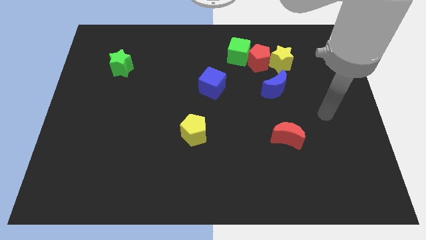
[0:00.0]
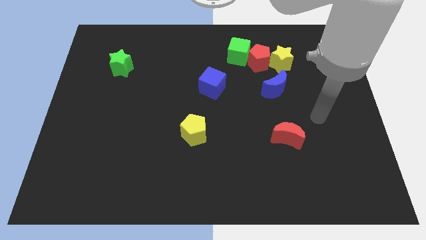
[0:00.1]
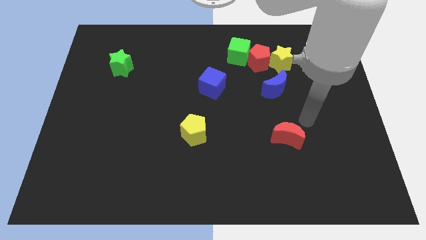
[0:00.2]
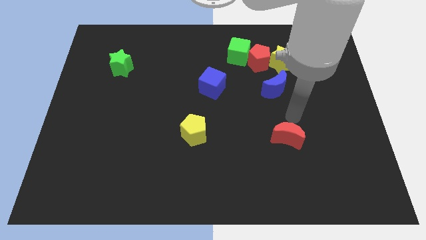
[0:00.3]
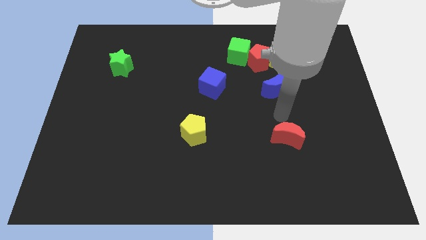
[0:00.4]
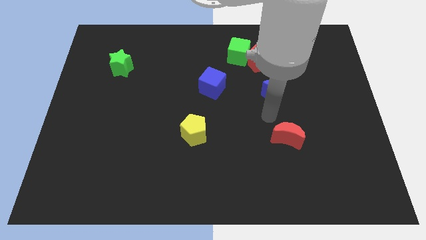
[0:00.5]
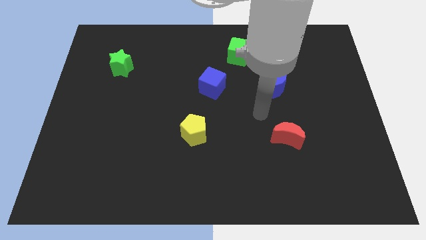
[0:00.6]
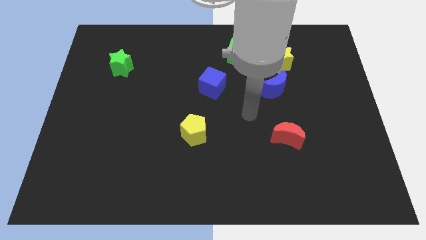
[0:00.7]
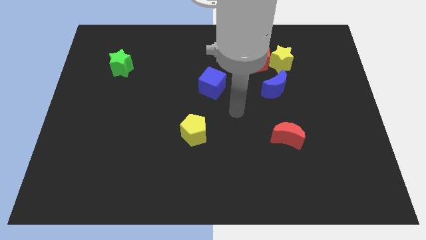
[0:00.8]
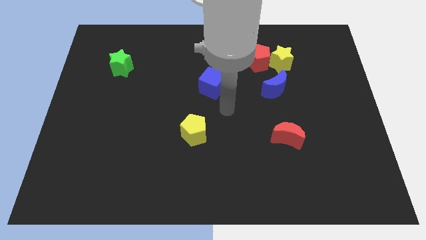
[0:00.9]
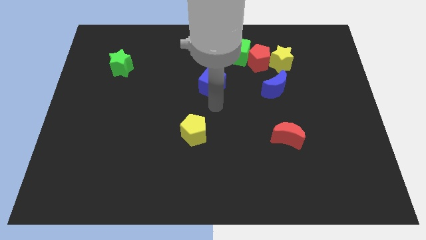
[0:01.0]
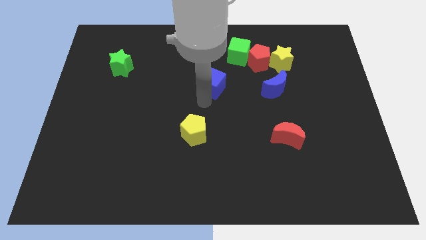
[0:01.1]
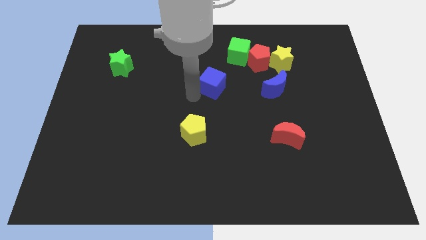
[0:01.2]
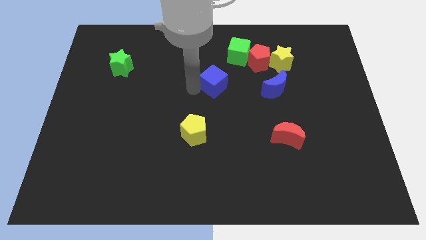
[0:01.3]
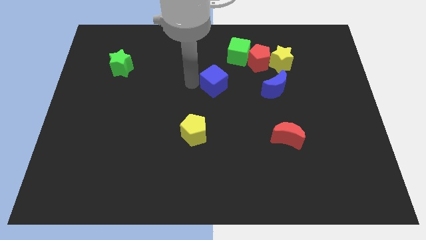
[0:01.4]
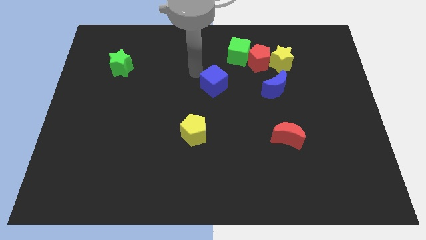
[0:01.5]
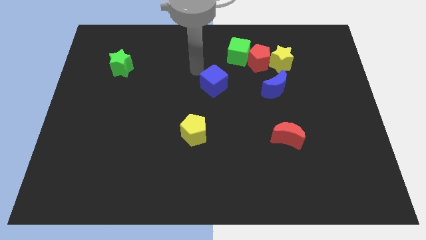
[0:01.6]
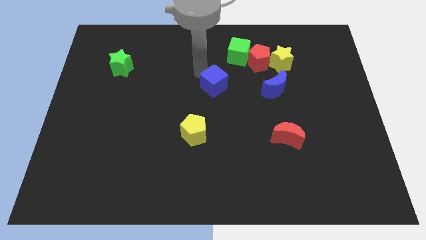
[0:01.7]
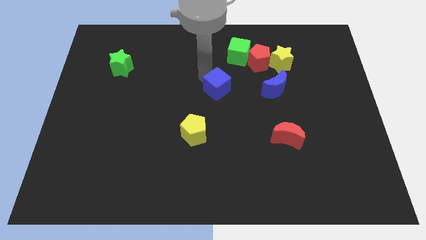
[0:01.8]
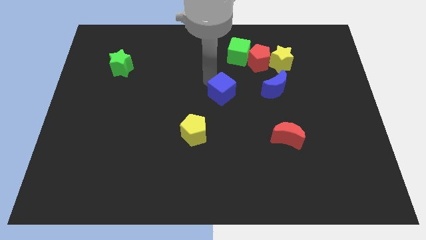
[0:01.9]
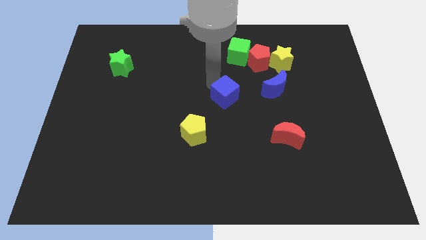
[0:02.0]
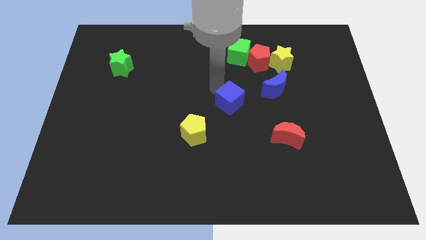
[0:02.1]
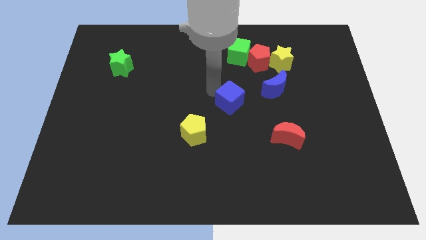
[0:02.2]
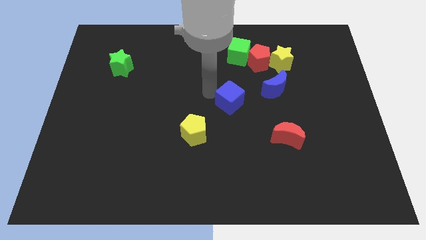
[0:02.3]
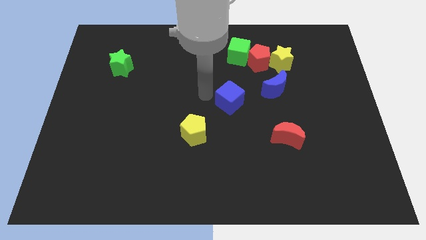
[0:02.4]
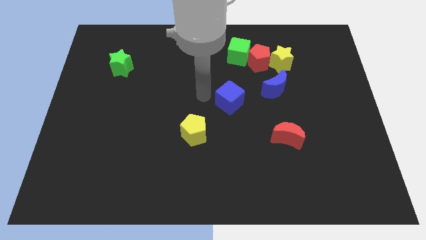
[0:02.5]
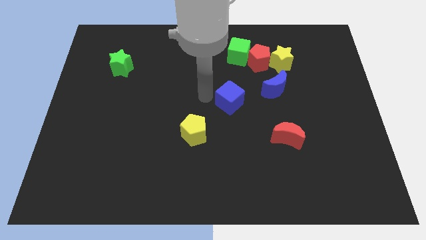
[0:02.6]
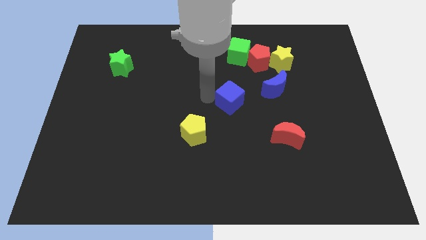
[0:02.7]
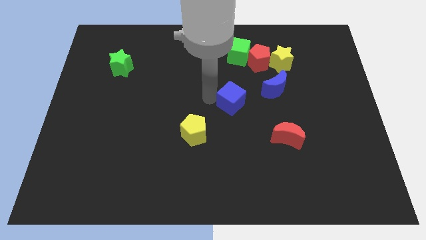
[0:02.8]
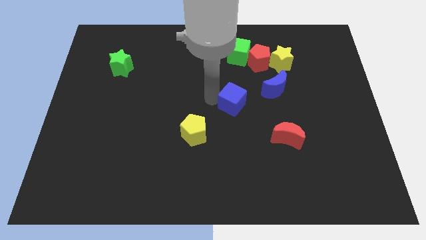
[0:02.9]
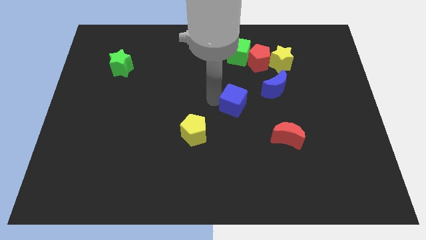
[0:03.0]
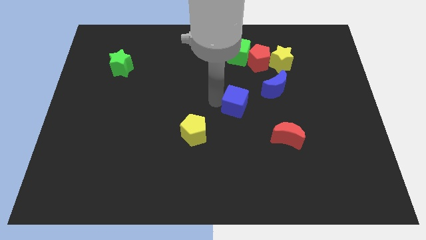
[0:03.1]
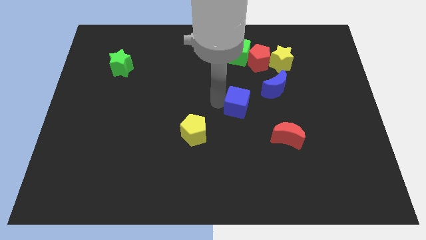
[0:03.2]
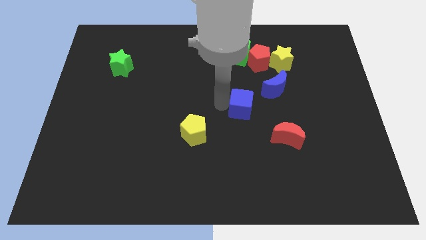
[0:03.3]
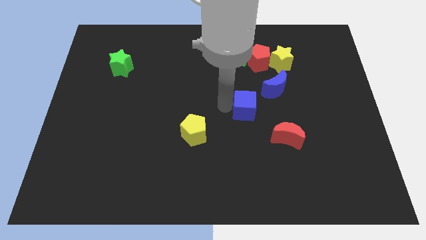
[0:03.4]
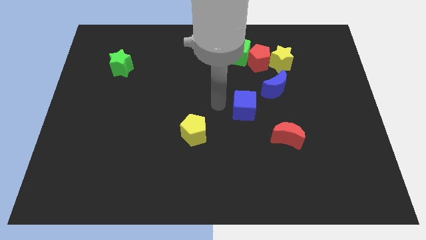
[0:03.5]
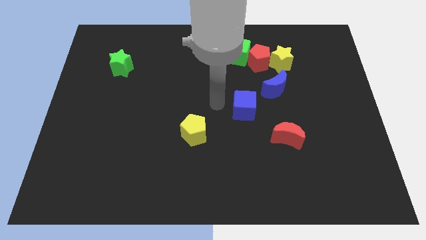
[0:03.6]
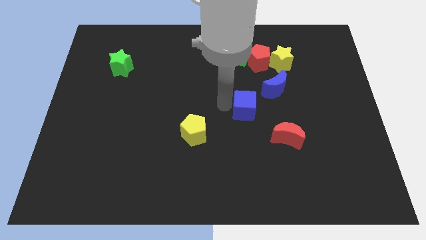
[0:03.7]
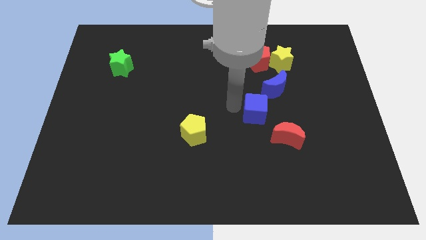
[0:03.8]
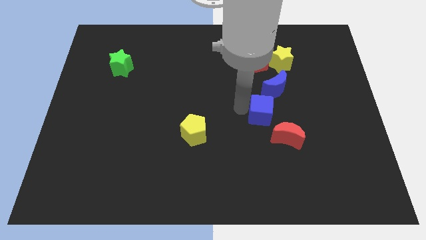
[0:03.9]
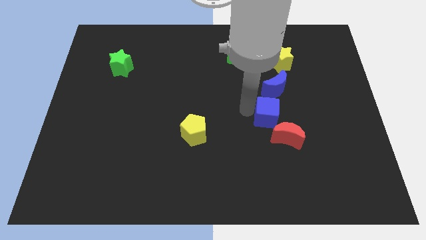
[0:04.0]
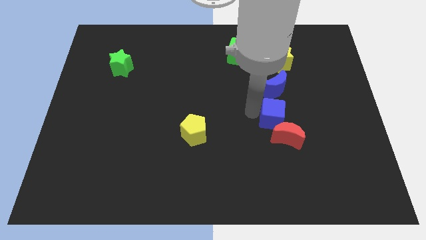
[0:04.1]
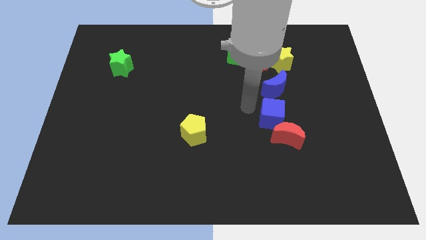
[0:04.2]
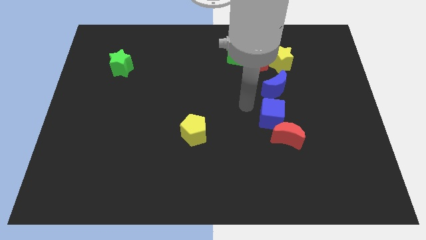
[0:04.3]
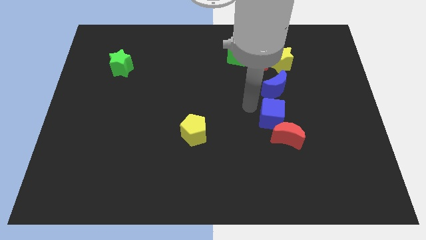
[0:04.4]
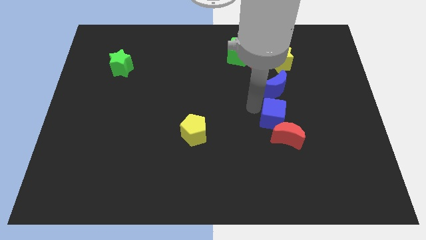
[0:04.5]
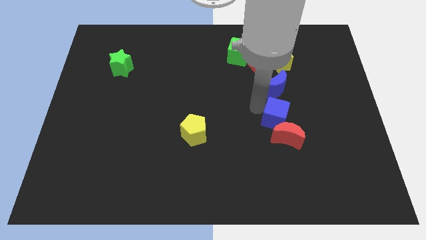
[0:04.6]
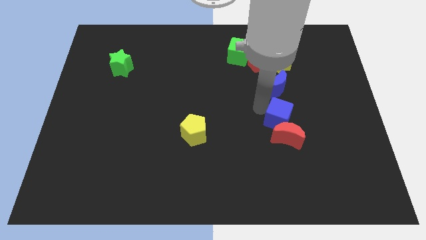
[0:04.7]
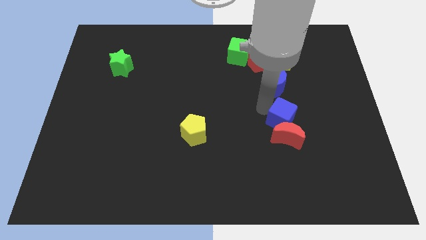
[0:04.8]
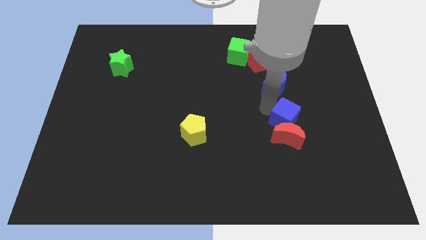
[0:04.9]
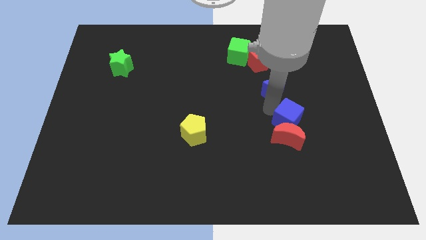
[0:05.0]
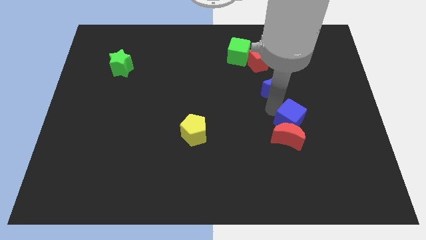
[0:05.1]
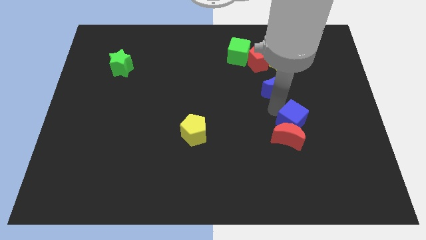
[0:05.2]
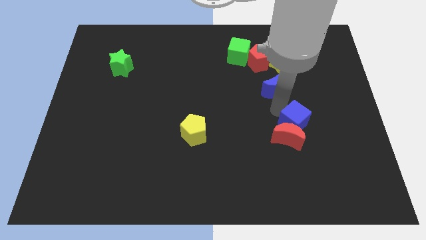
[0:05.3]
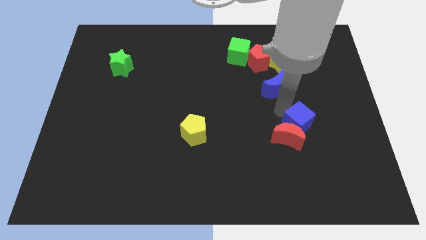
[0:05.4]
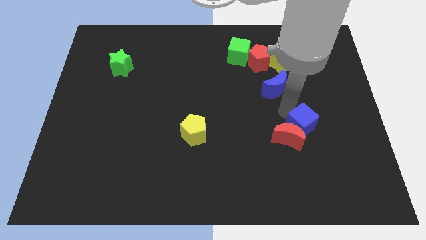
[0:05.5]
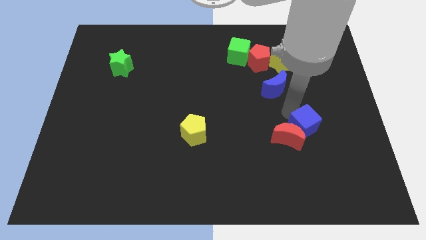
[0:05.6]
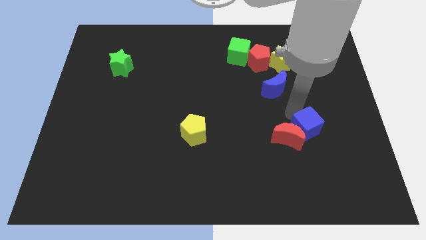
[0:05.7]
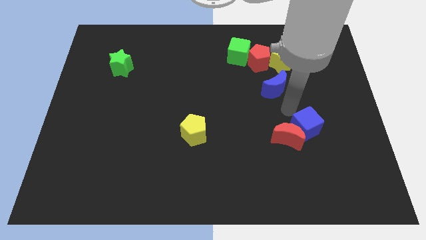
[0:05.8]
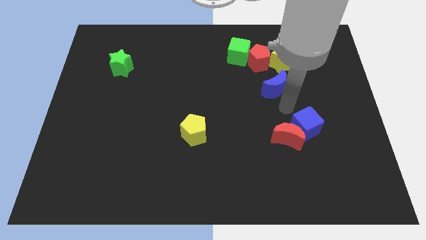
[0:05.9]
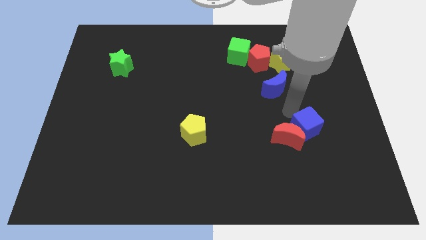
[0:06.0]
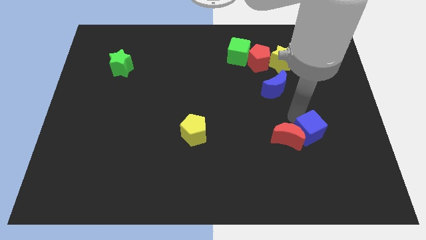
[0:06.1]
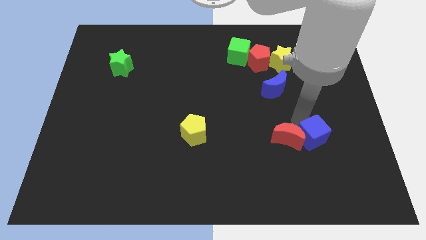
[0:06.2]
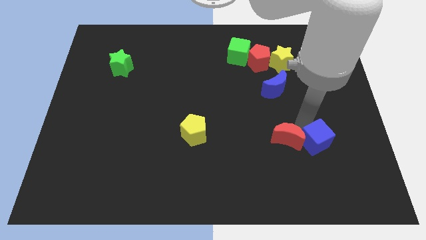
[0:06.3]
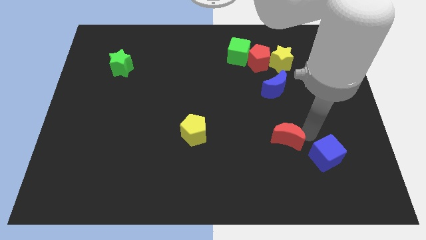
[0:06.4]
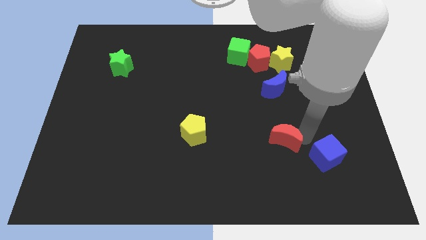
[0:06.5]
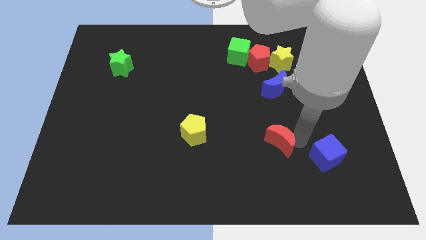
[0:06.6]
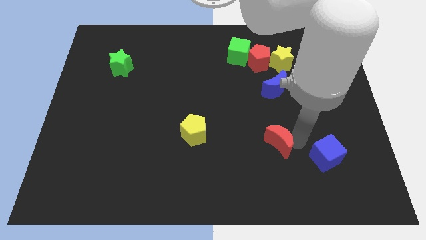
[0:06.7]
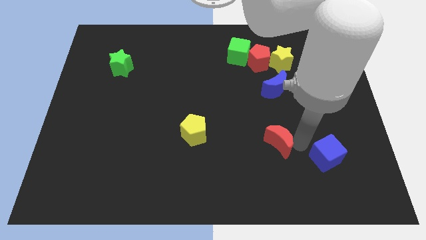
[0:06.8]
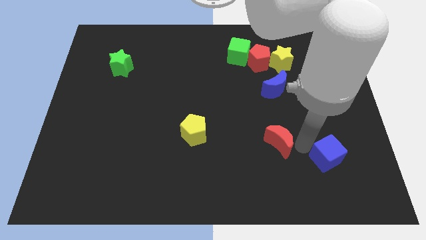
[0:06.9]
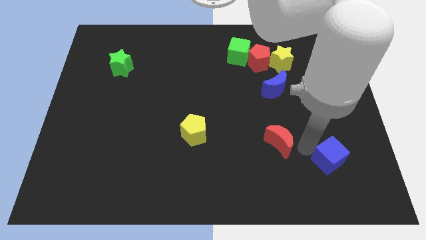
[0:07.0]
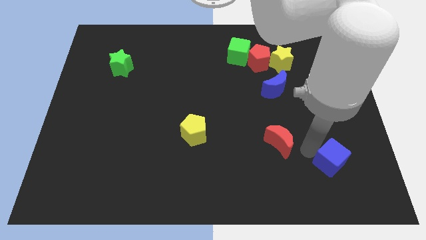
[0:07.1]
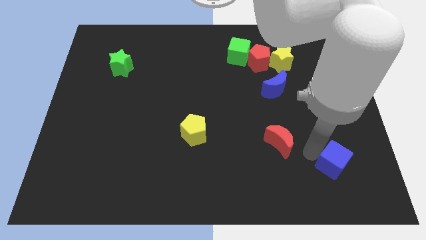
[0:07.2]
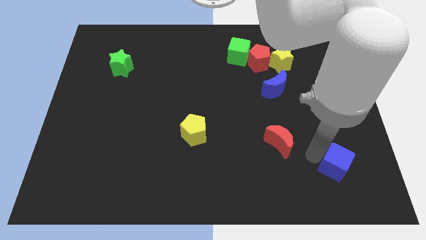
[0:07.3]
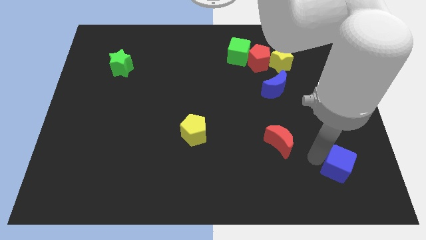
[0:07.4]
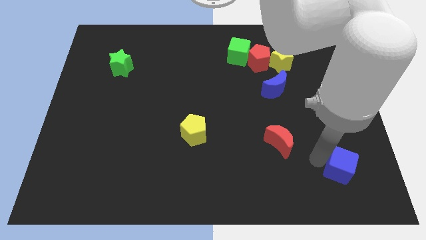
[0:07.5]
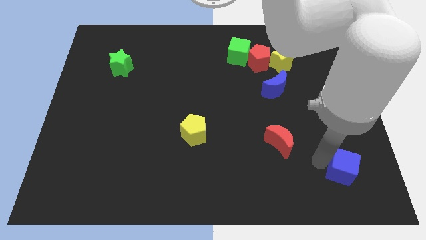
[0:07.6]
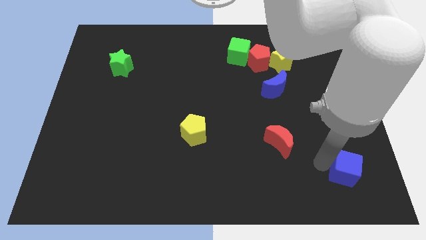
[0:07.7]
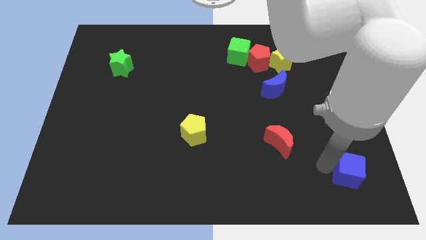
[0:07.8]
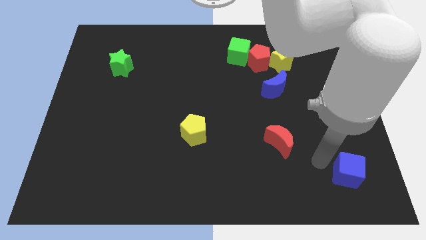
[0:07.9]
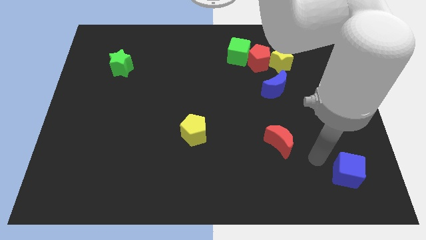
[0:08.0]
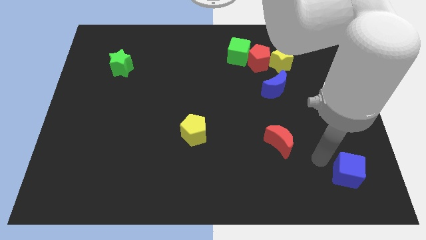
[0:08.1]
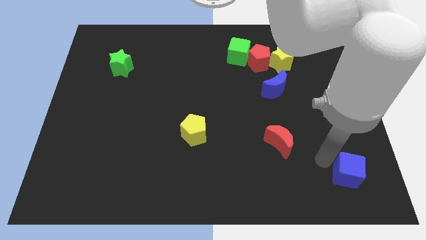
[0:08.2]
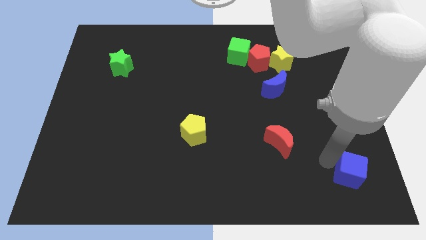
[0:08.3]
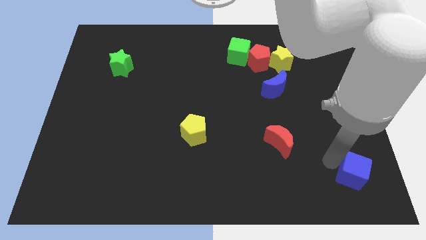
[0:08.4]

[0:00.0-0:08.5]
put the blue cube to the bottom right
